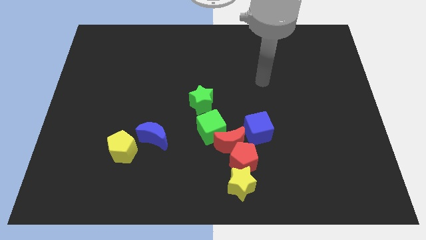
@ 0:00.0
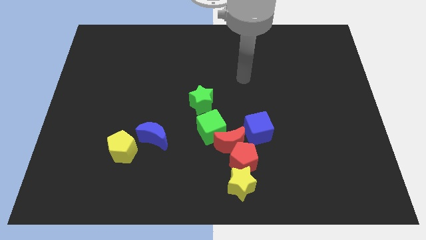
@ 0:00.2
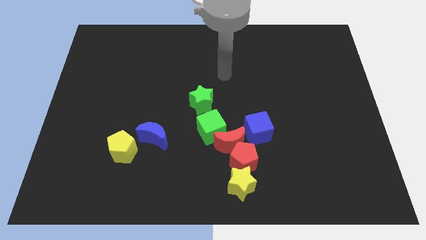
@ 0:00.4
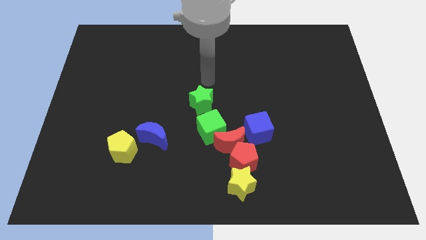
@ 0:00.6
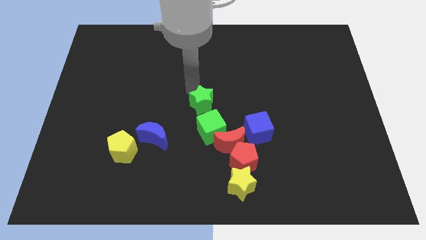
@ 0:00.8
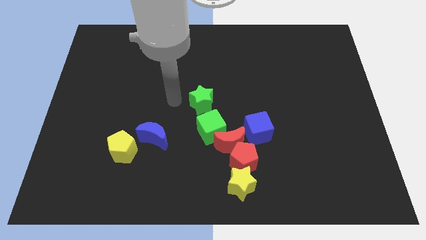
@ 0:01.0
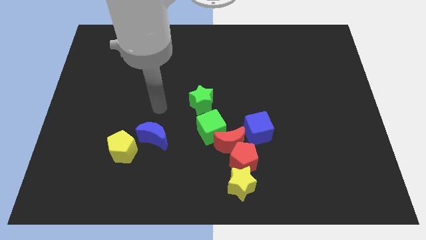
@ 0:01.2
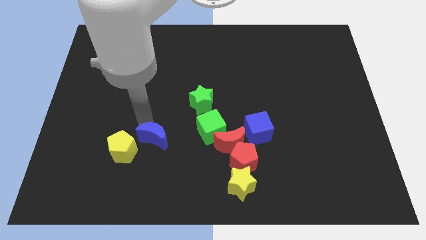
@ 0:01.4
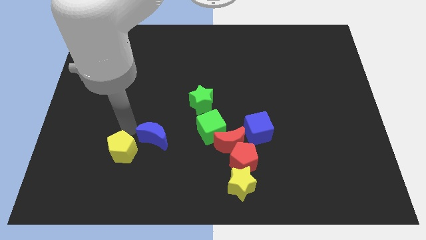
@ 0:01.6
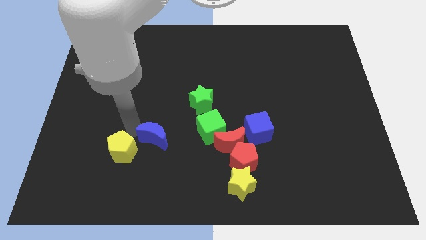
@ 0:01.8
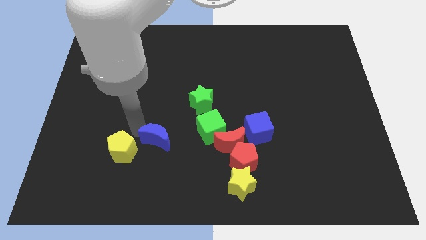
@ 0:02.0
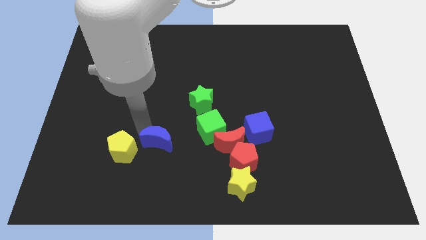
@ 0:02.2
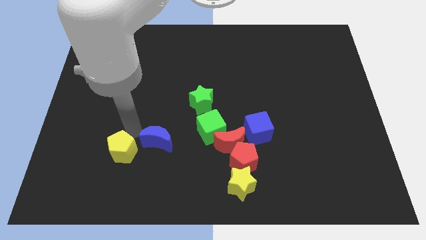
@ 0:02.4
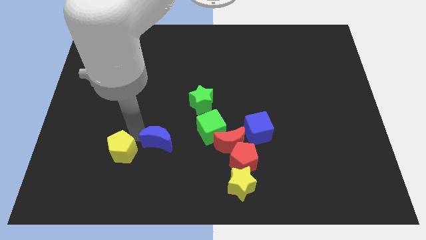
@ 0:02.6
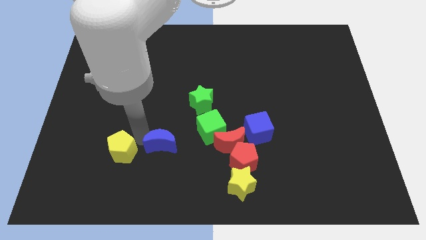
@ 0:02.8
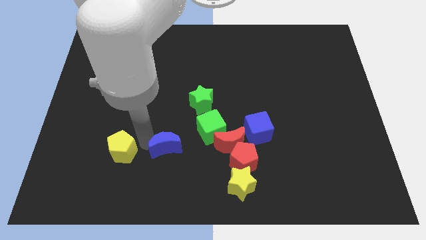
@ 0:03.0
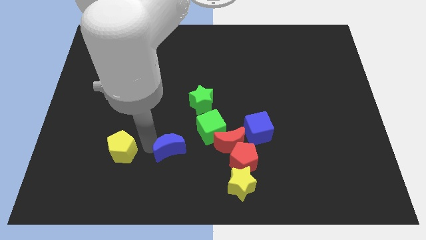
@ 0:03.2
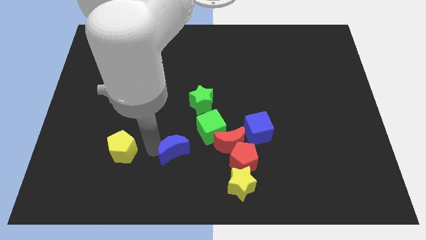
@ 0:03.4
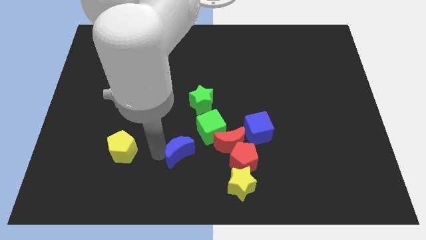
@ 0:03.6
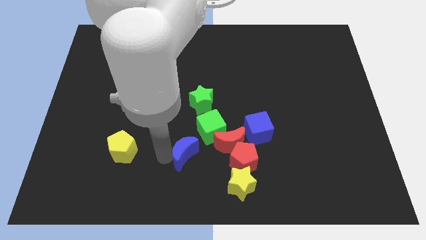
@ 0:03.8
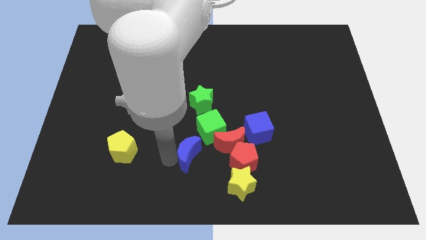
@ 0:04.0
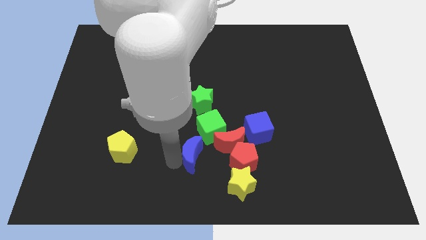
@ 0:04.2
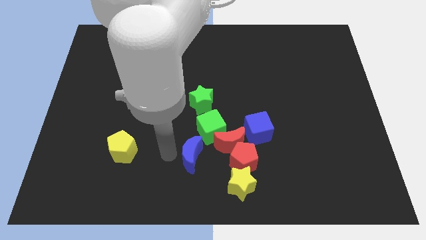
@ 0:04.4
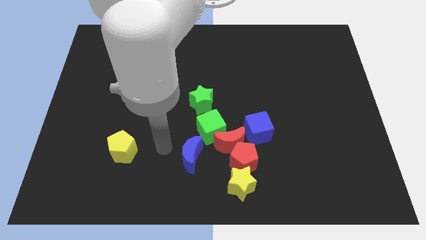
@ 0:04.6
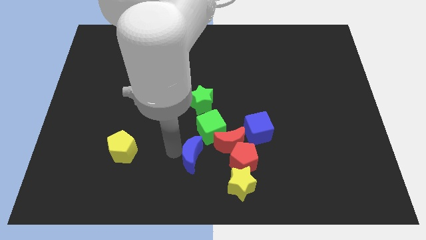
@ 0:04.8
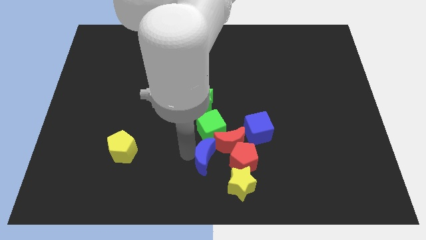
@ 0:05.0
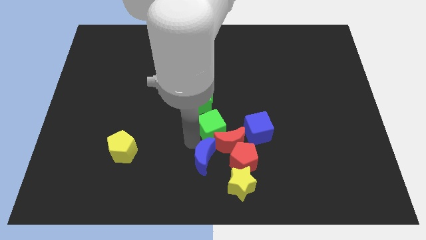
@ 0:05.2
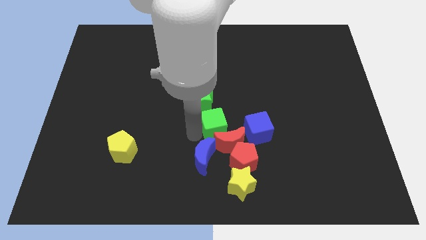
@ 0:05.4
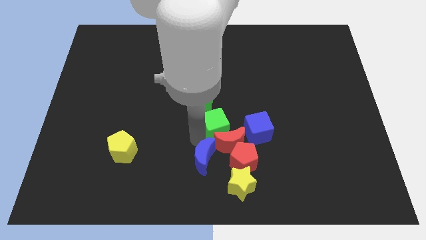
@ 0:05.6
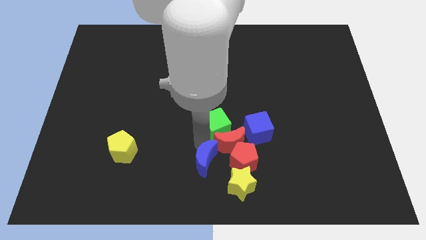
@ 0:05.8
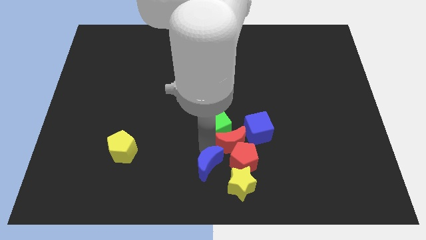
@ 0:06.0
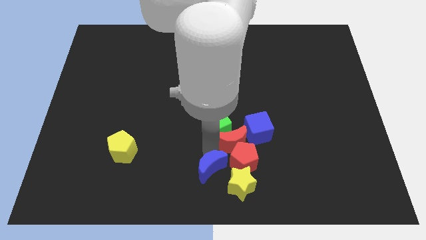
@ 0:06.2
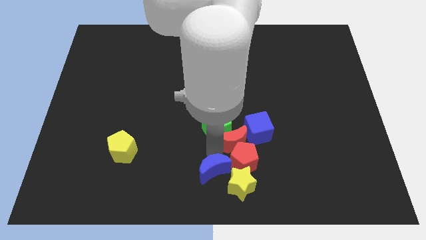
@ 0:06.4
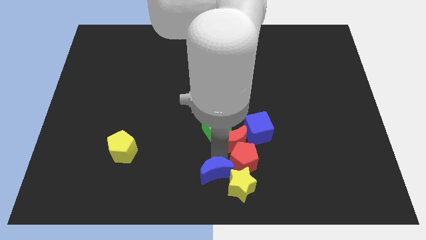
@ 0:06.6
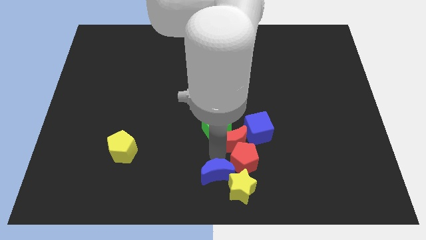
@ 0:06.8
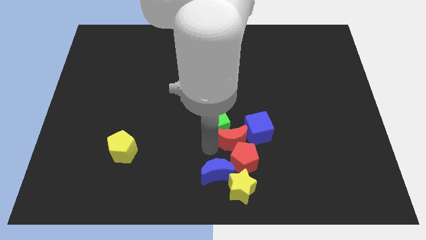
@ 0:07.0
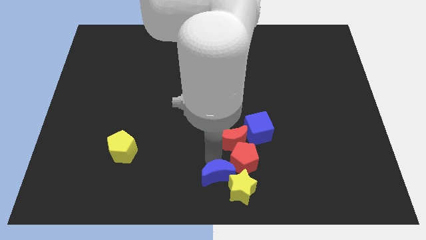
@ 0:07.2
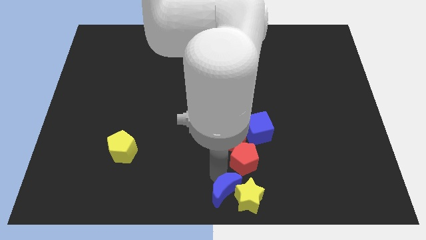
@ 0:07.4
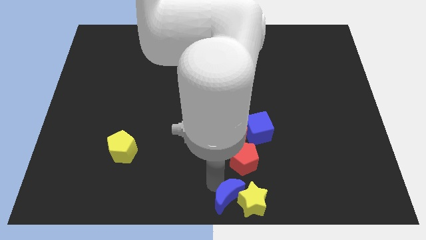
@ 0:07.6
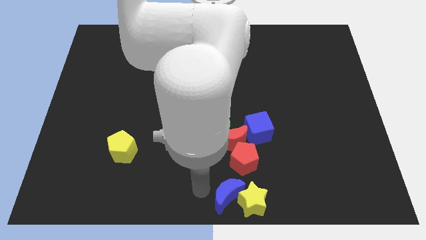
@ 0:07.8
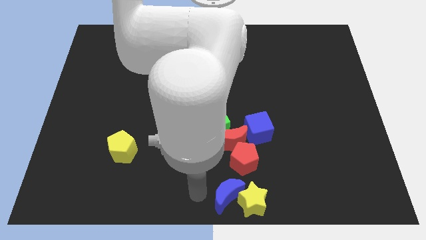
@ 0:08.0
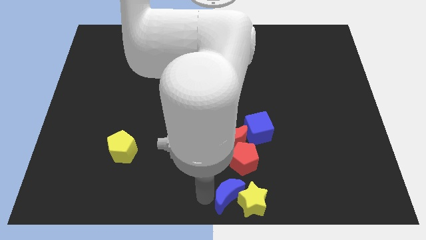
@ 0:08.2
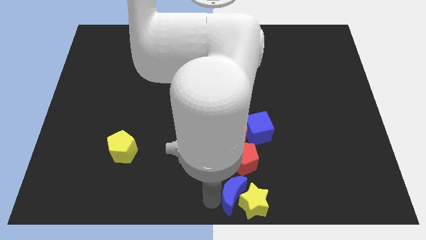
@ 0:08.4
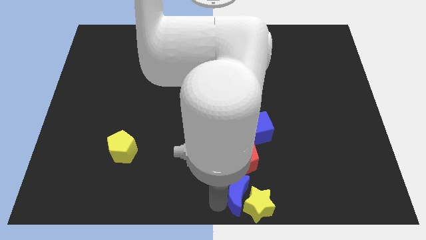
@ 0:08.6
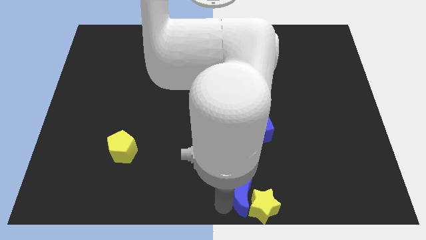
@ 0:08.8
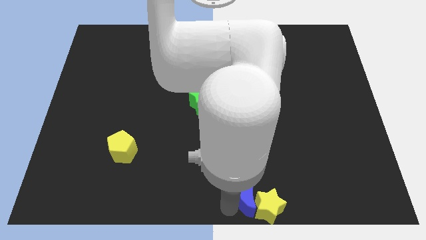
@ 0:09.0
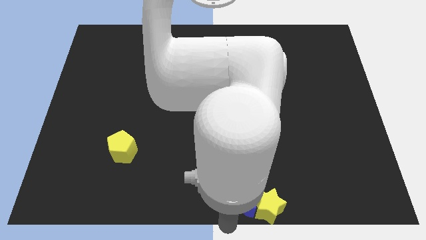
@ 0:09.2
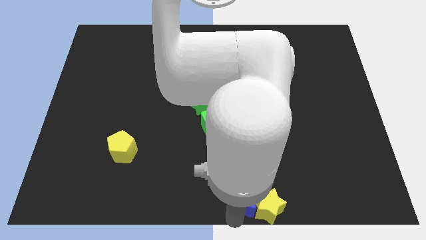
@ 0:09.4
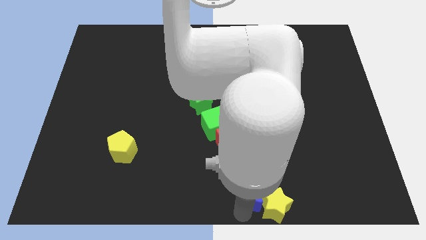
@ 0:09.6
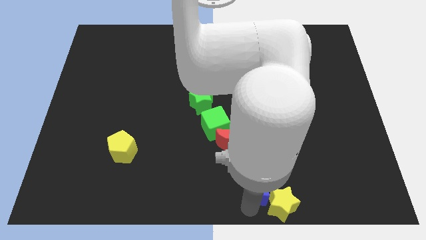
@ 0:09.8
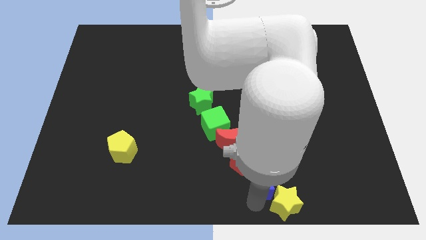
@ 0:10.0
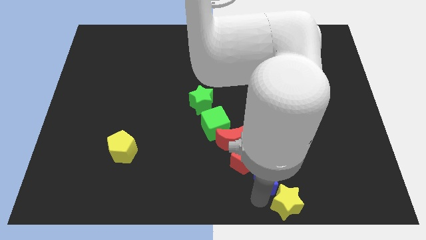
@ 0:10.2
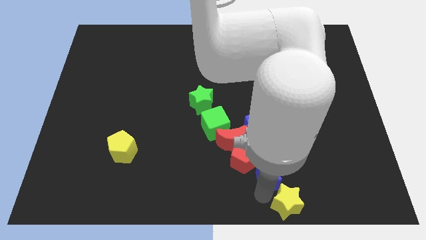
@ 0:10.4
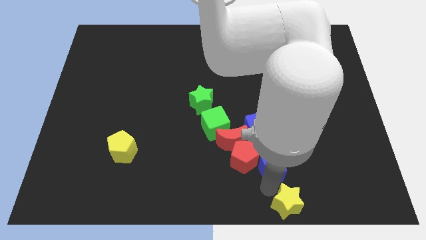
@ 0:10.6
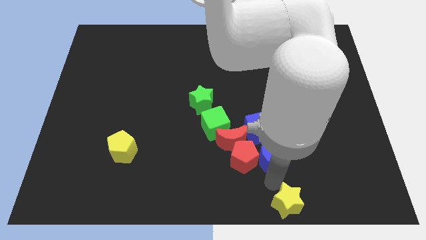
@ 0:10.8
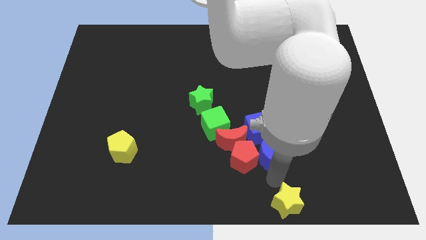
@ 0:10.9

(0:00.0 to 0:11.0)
slide the blue moon just right of the red moon

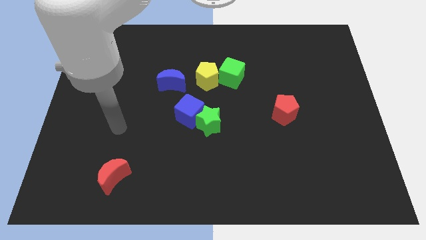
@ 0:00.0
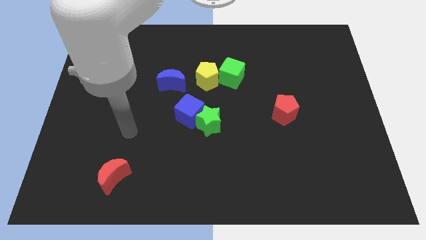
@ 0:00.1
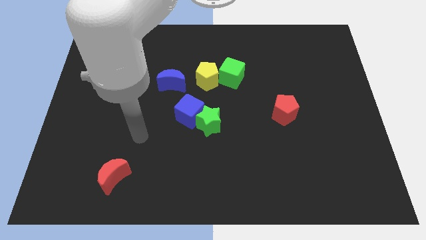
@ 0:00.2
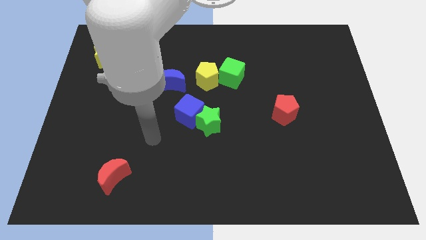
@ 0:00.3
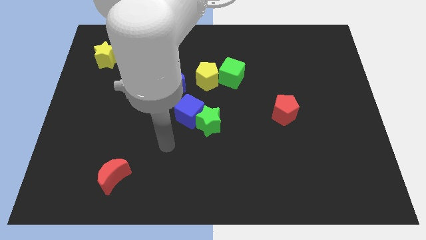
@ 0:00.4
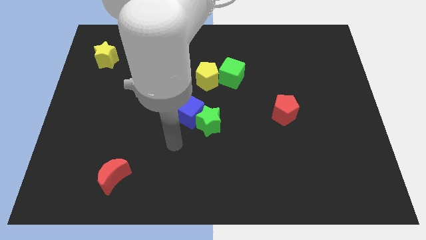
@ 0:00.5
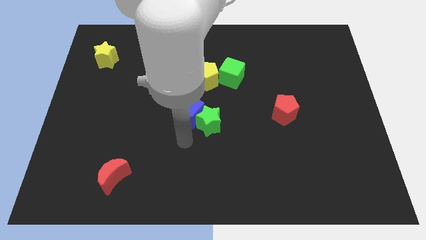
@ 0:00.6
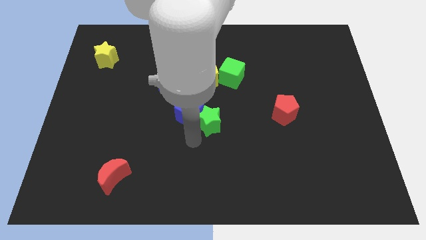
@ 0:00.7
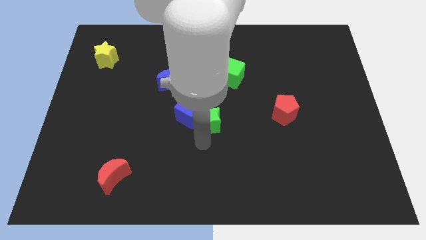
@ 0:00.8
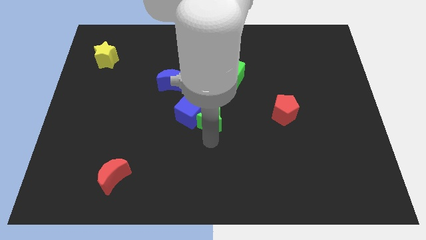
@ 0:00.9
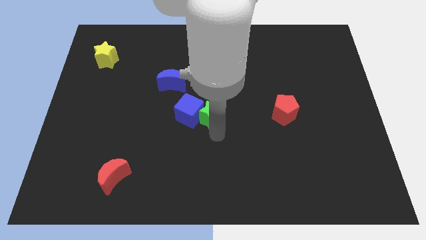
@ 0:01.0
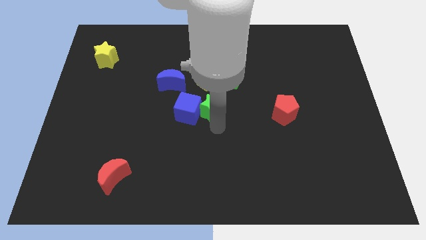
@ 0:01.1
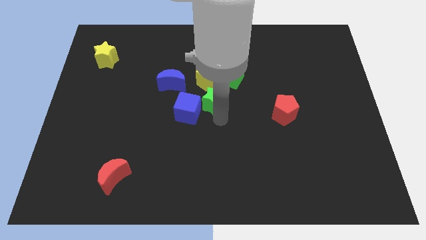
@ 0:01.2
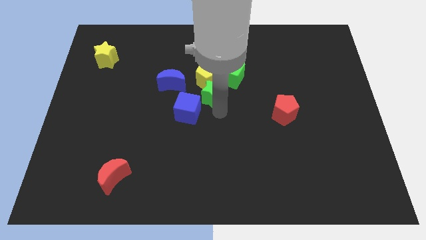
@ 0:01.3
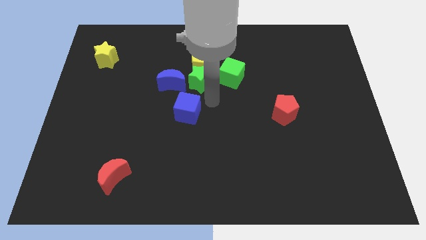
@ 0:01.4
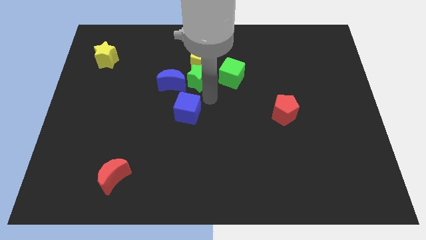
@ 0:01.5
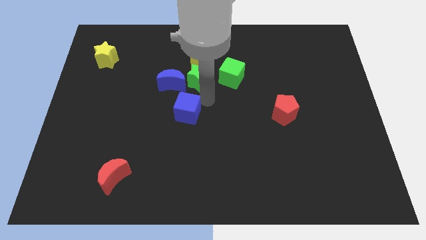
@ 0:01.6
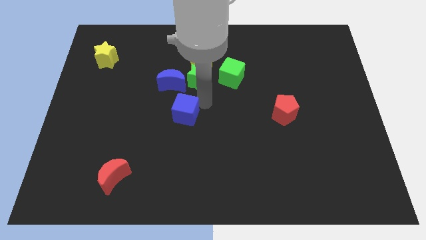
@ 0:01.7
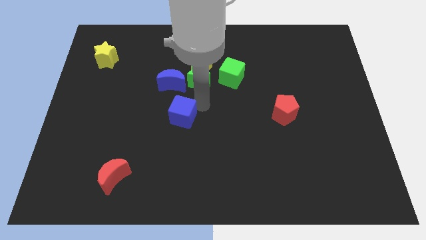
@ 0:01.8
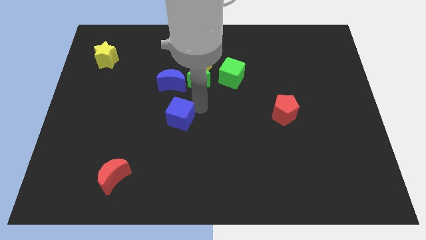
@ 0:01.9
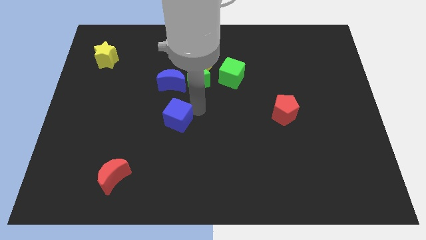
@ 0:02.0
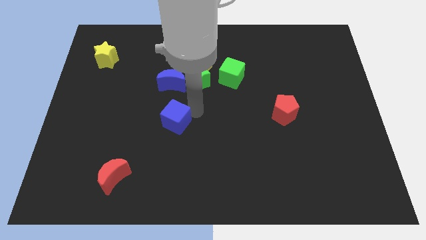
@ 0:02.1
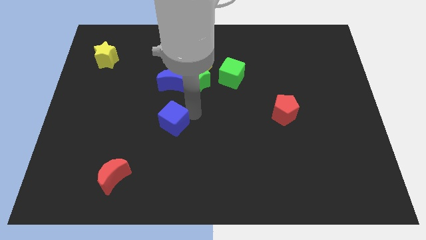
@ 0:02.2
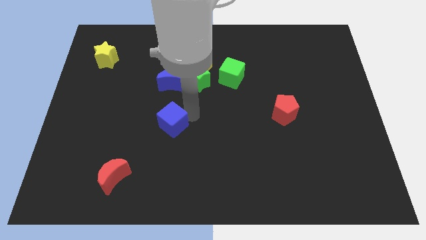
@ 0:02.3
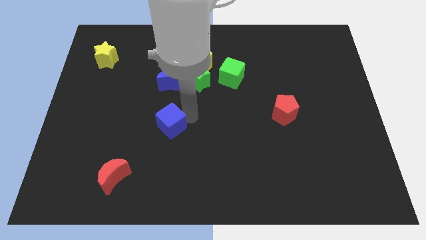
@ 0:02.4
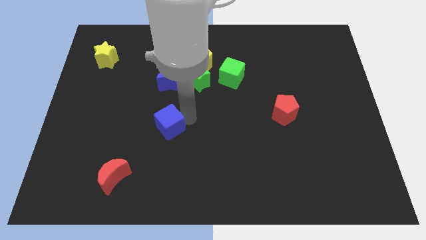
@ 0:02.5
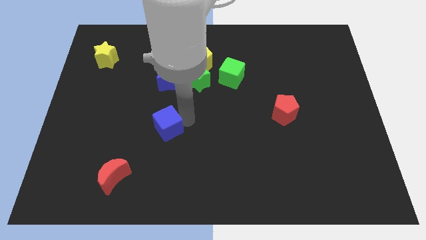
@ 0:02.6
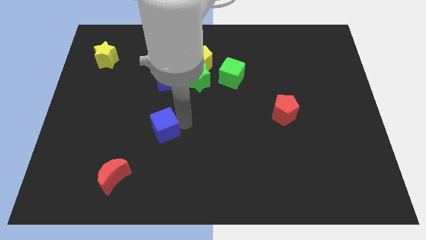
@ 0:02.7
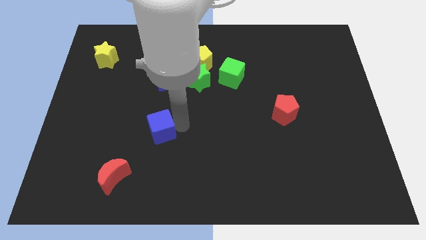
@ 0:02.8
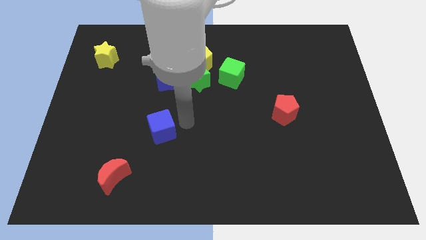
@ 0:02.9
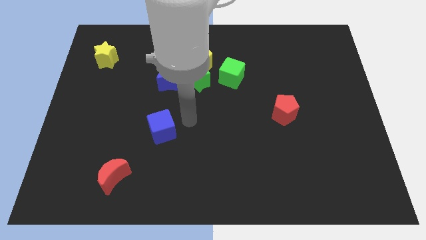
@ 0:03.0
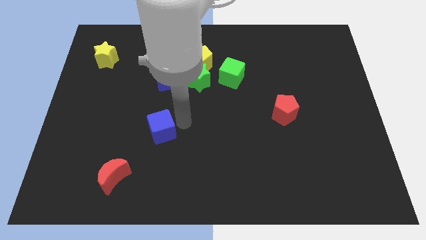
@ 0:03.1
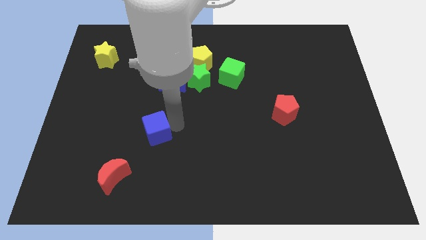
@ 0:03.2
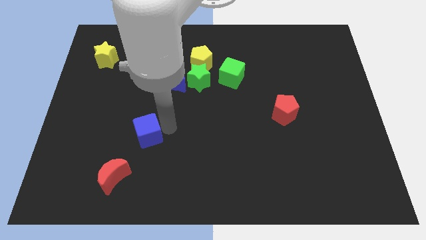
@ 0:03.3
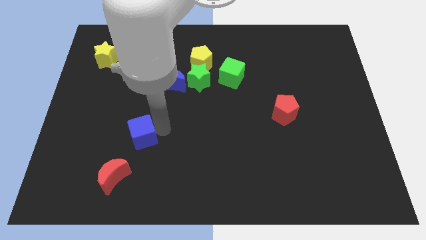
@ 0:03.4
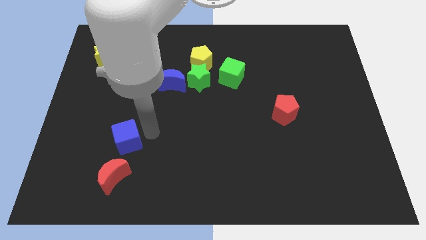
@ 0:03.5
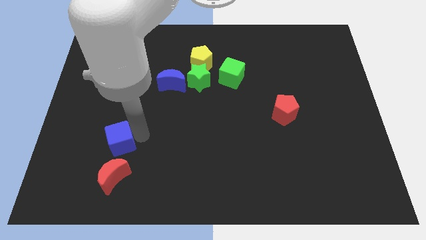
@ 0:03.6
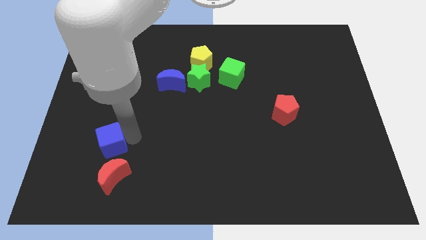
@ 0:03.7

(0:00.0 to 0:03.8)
put the blue cube to the top left of the red moon
